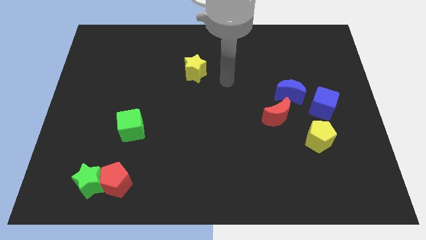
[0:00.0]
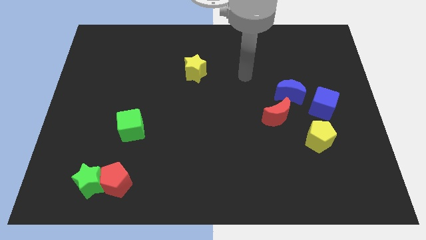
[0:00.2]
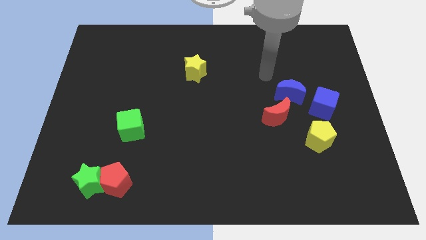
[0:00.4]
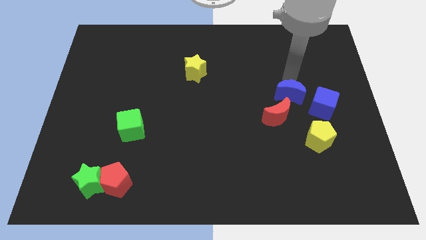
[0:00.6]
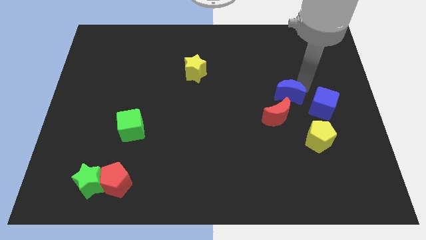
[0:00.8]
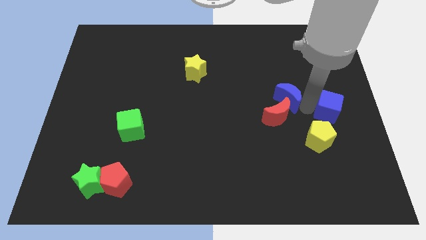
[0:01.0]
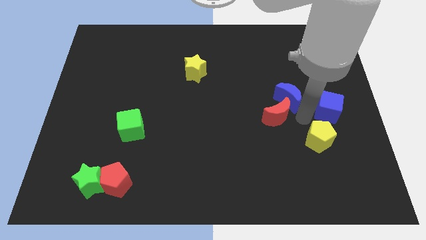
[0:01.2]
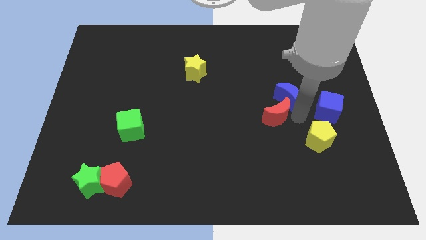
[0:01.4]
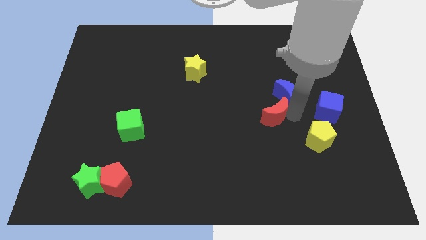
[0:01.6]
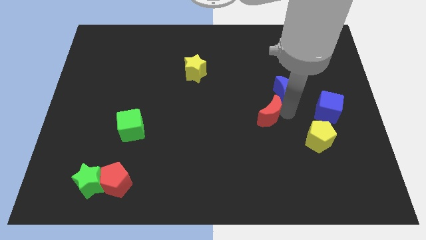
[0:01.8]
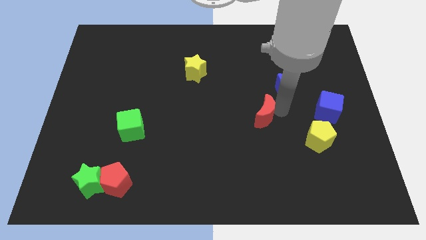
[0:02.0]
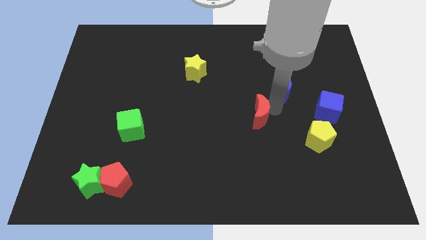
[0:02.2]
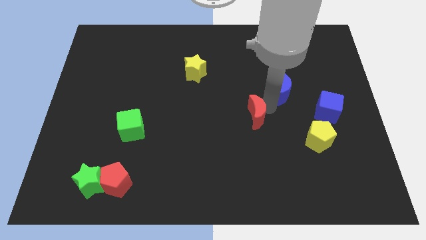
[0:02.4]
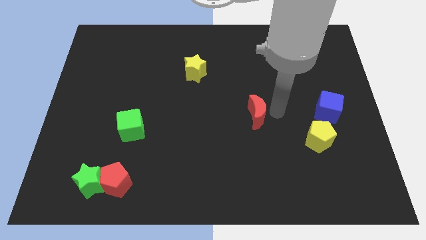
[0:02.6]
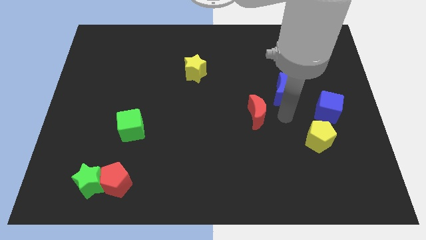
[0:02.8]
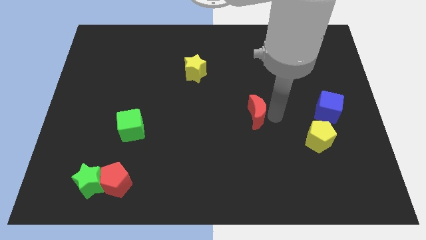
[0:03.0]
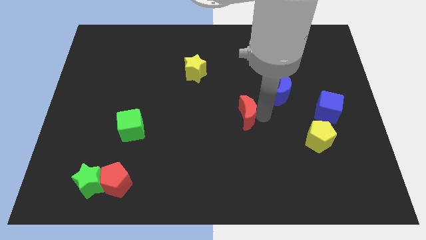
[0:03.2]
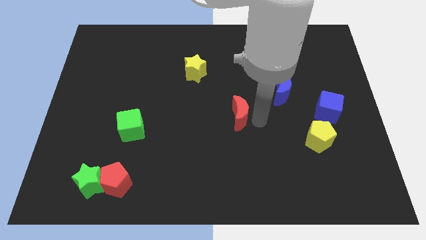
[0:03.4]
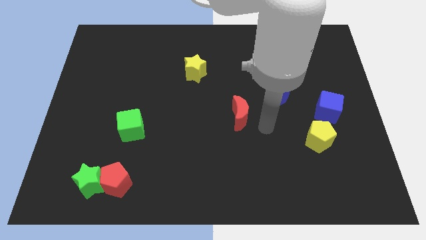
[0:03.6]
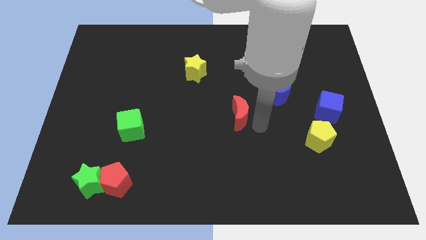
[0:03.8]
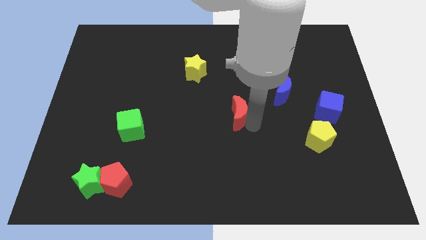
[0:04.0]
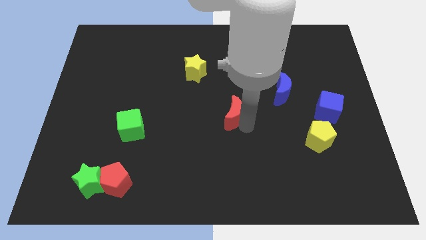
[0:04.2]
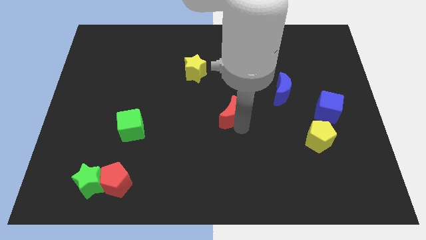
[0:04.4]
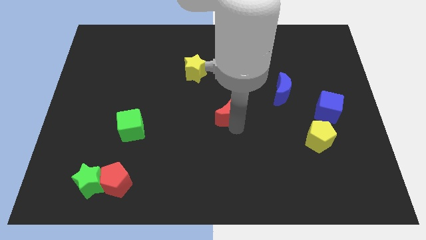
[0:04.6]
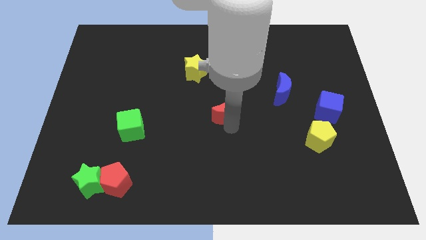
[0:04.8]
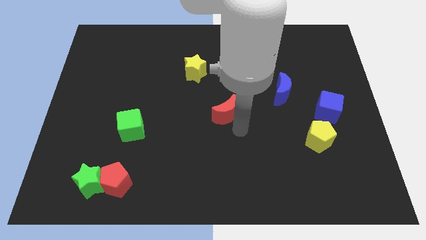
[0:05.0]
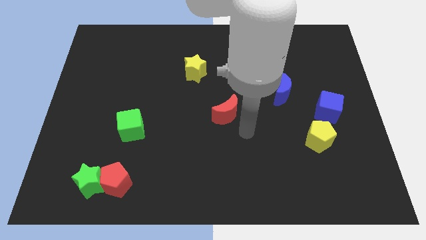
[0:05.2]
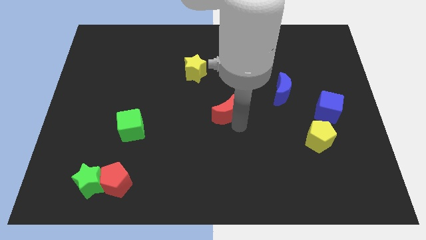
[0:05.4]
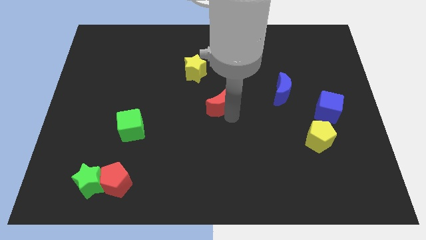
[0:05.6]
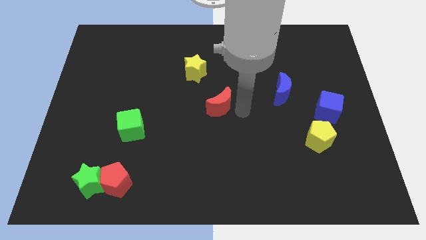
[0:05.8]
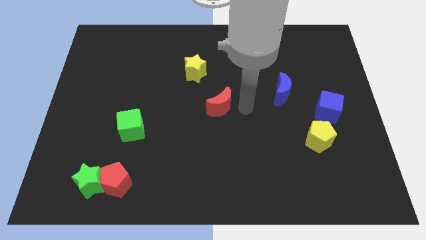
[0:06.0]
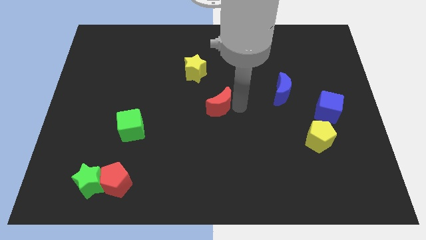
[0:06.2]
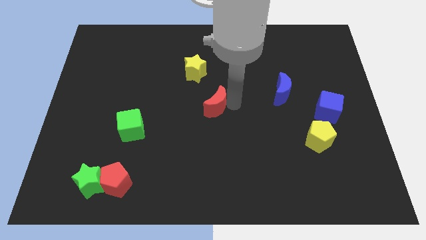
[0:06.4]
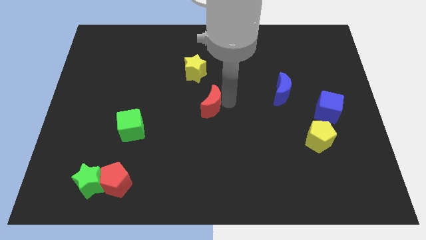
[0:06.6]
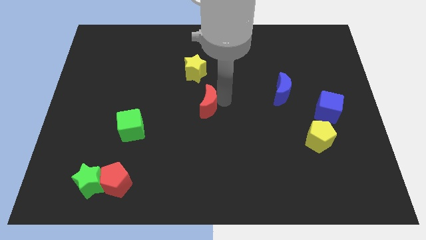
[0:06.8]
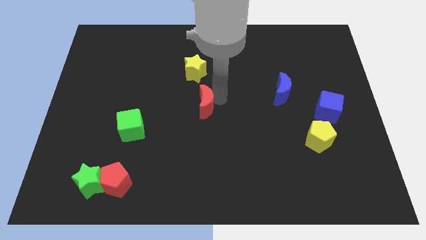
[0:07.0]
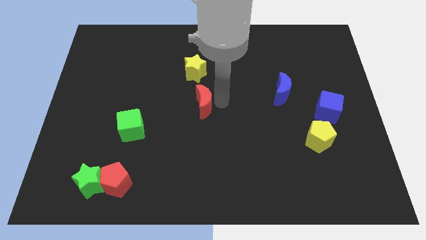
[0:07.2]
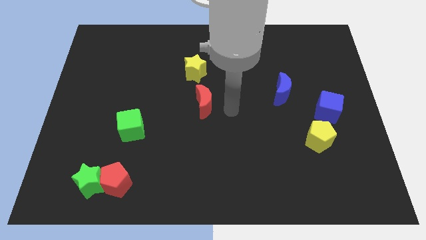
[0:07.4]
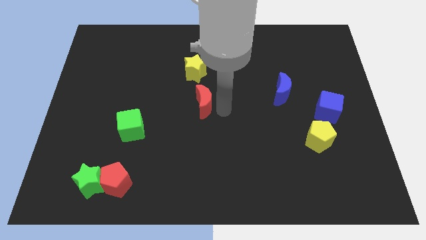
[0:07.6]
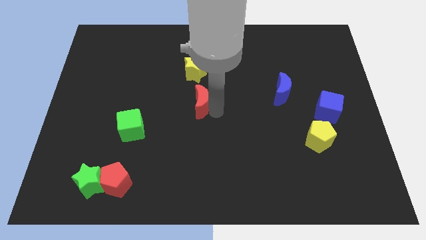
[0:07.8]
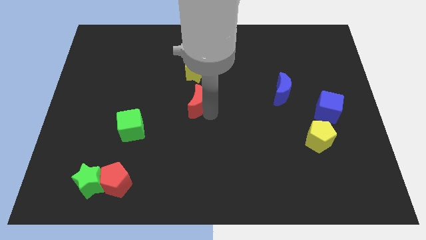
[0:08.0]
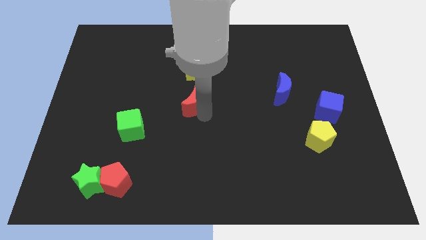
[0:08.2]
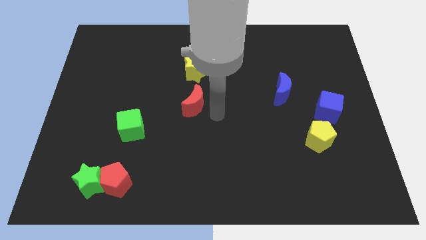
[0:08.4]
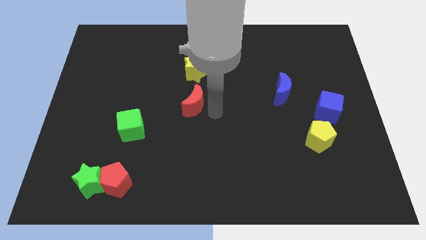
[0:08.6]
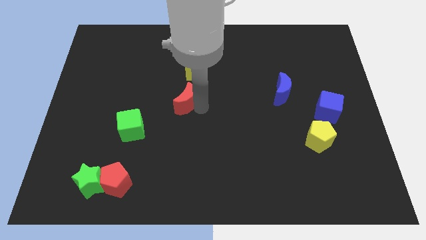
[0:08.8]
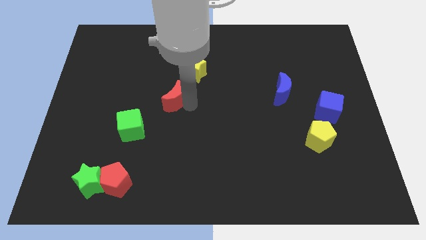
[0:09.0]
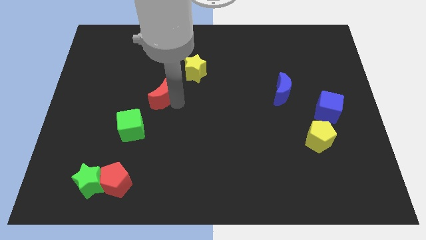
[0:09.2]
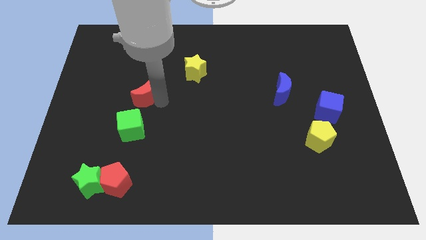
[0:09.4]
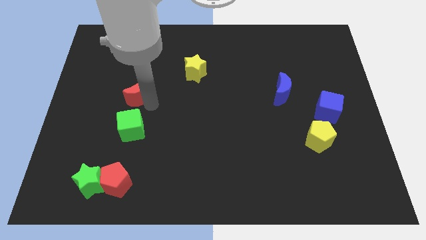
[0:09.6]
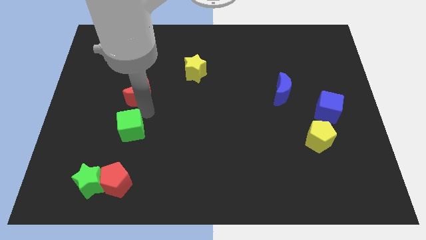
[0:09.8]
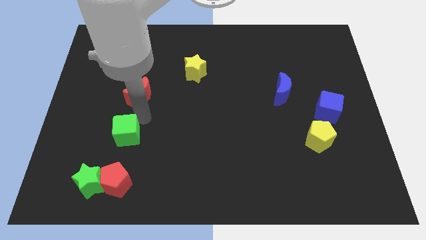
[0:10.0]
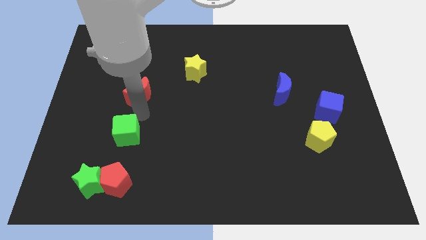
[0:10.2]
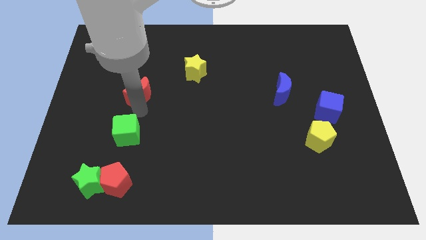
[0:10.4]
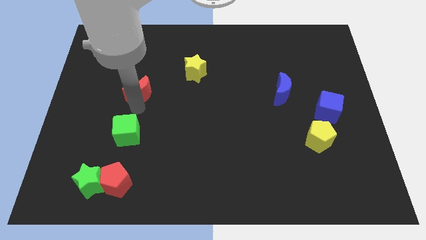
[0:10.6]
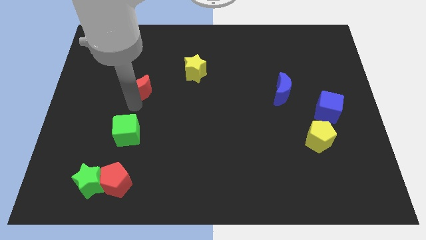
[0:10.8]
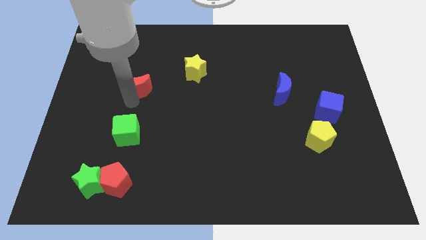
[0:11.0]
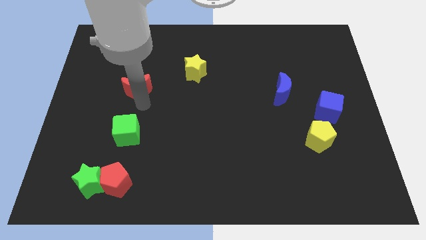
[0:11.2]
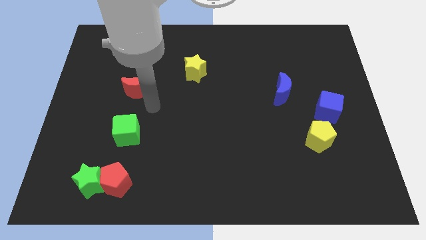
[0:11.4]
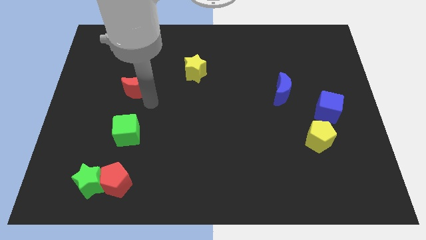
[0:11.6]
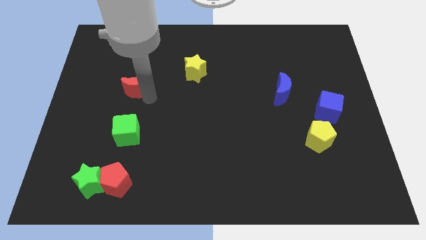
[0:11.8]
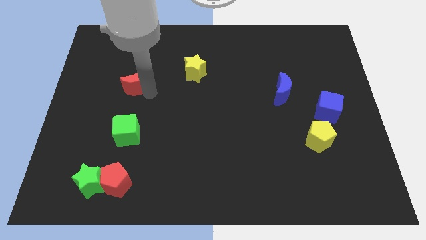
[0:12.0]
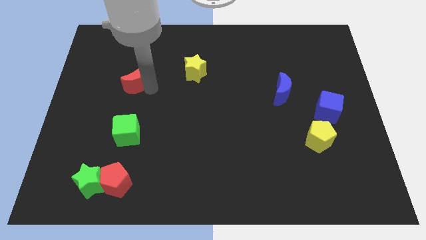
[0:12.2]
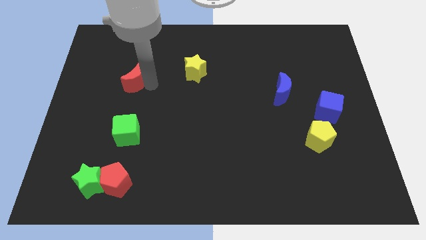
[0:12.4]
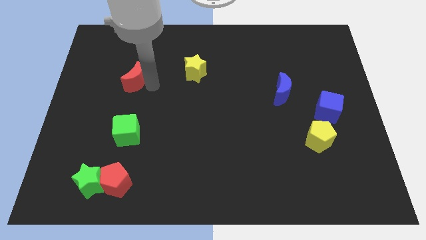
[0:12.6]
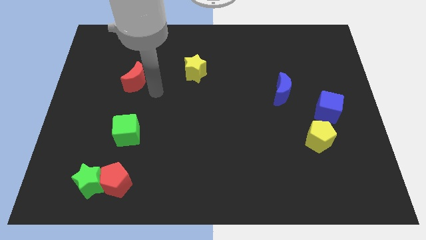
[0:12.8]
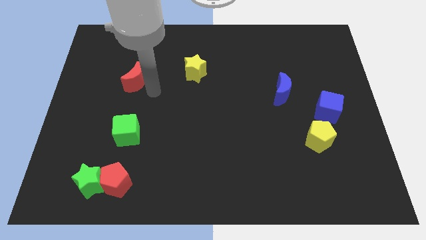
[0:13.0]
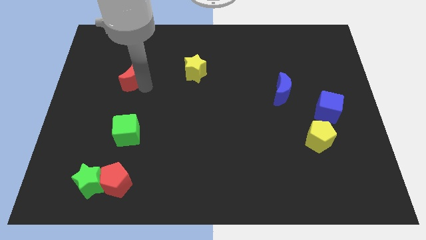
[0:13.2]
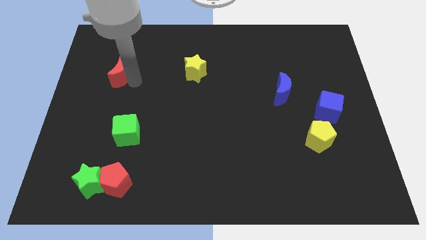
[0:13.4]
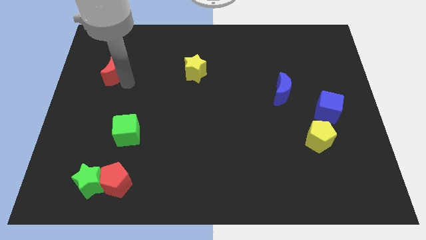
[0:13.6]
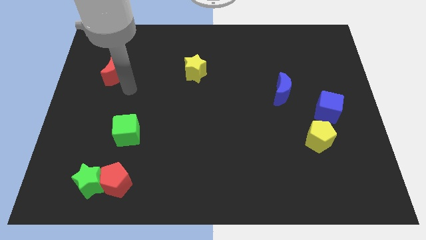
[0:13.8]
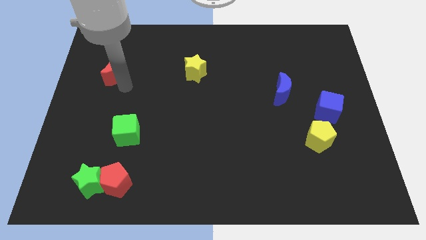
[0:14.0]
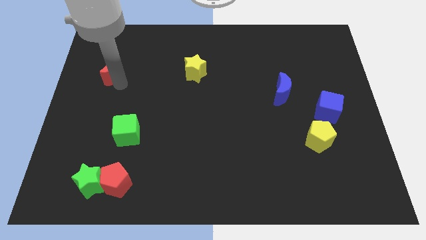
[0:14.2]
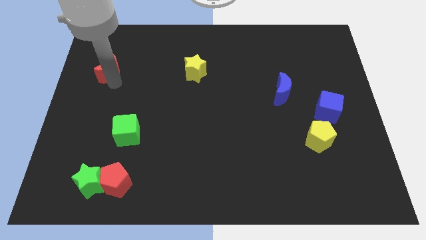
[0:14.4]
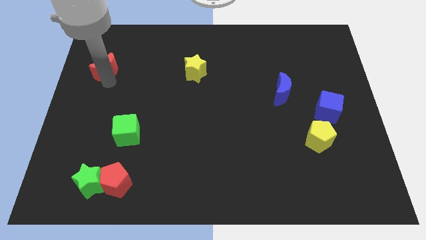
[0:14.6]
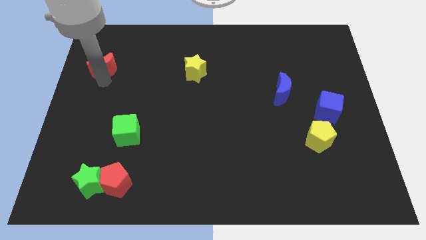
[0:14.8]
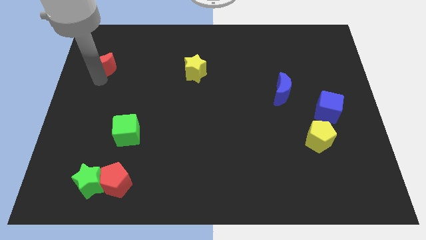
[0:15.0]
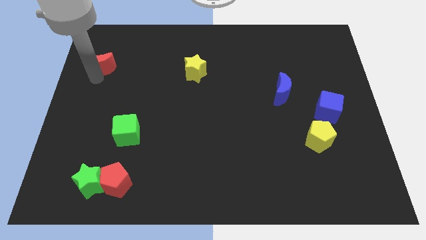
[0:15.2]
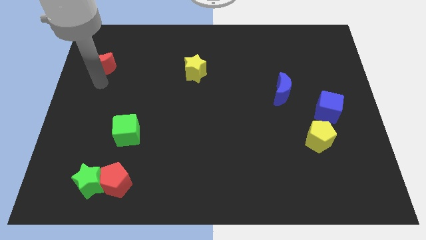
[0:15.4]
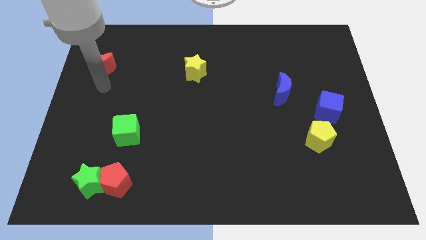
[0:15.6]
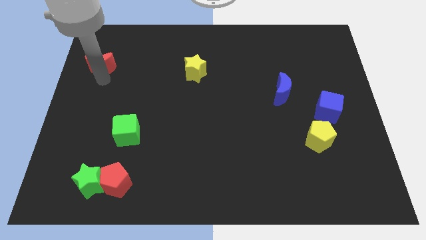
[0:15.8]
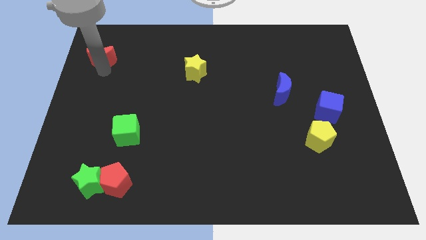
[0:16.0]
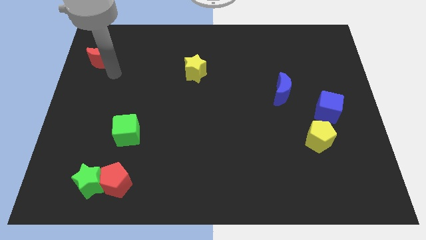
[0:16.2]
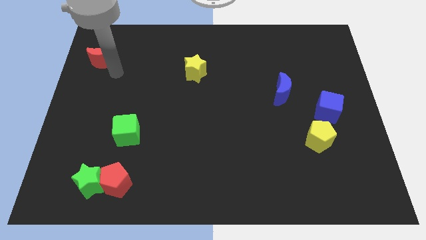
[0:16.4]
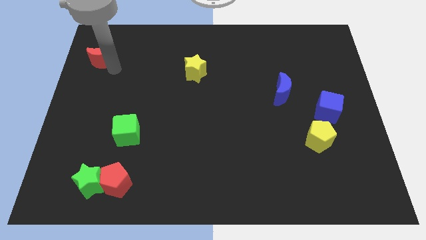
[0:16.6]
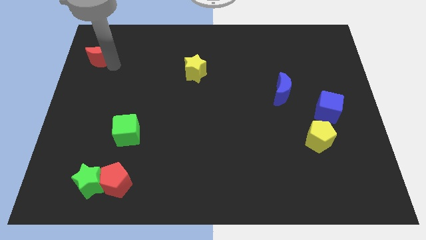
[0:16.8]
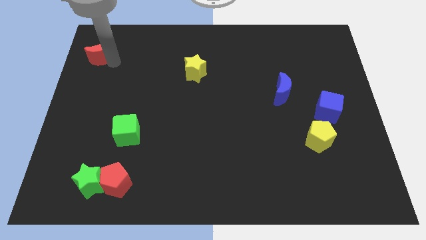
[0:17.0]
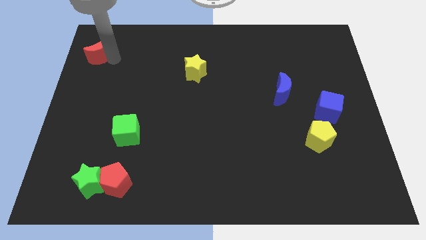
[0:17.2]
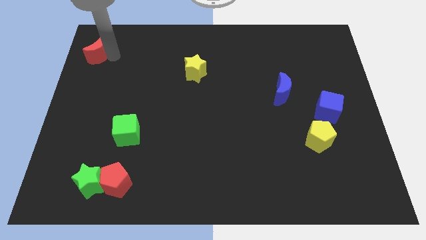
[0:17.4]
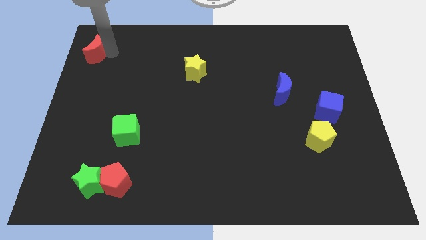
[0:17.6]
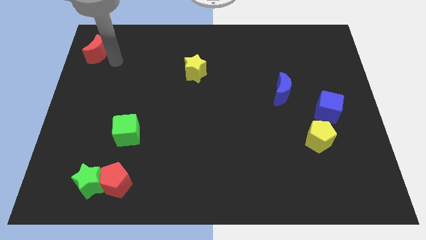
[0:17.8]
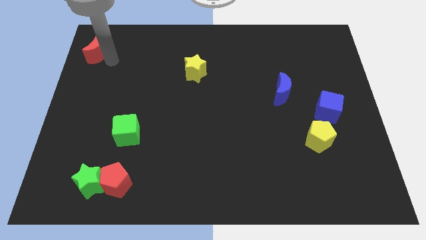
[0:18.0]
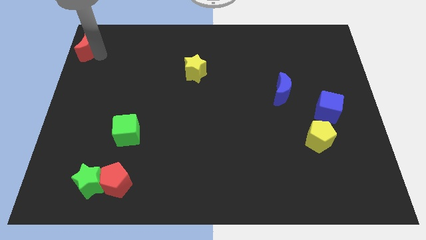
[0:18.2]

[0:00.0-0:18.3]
move the red moon to the top left corner
